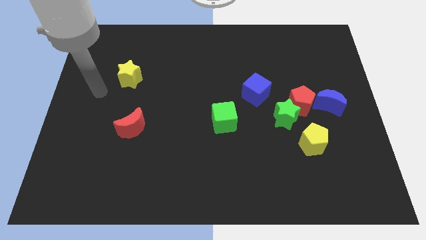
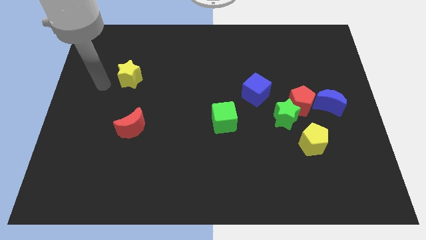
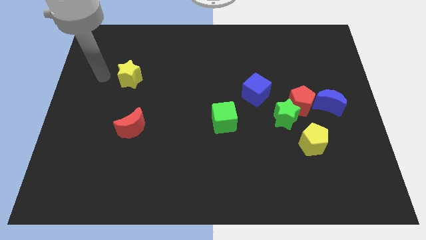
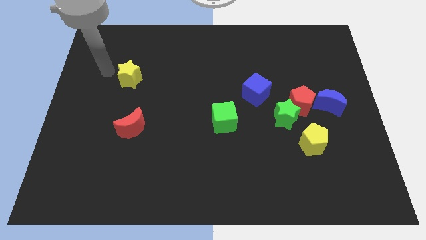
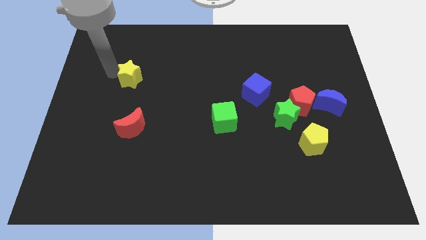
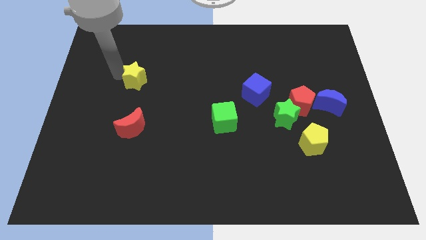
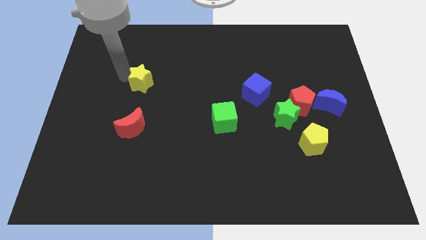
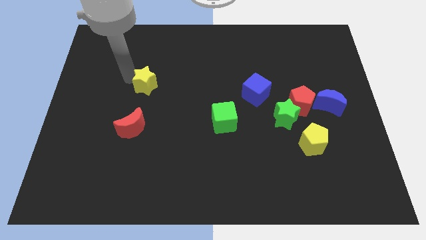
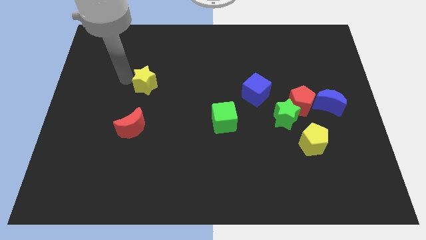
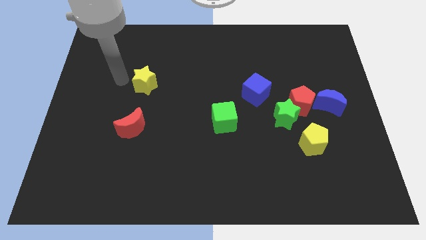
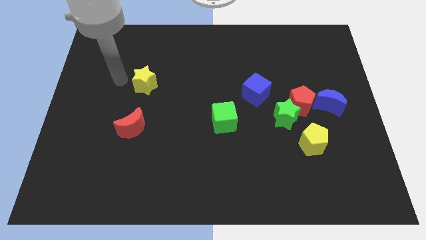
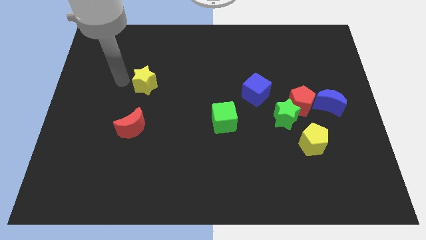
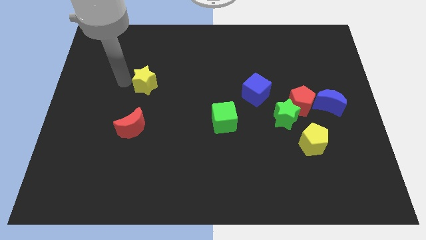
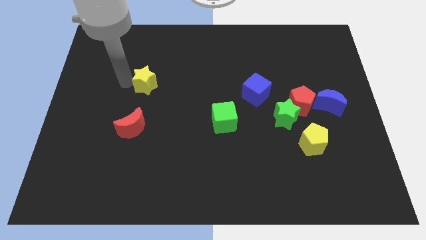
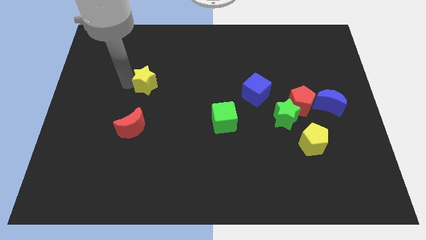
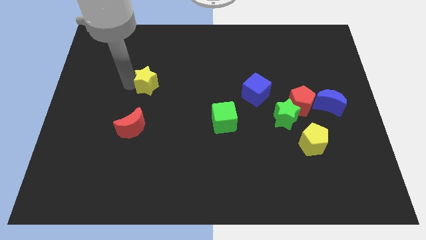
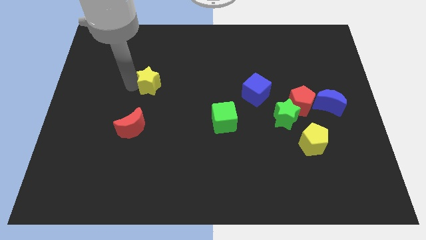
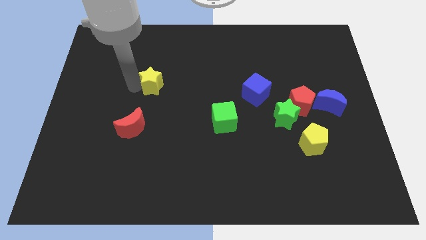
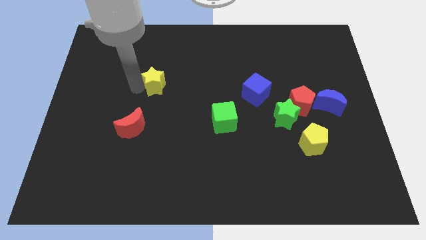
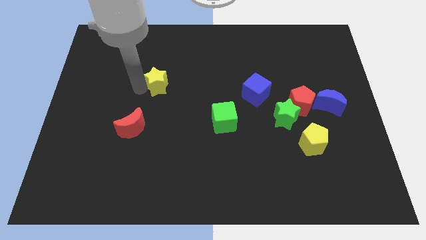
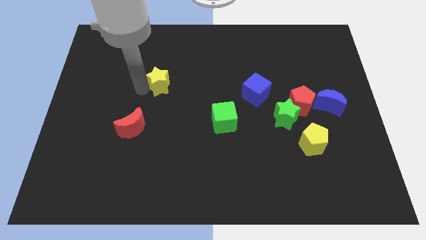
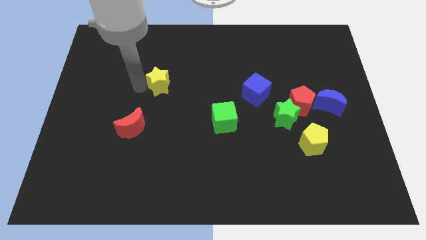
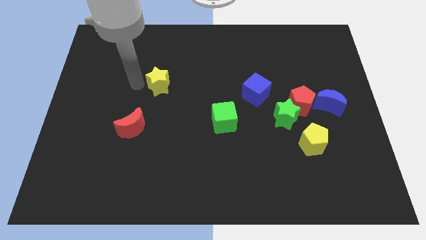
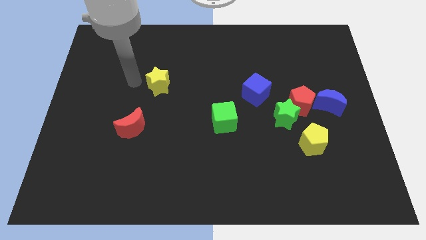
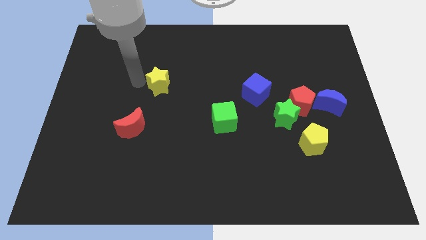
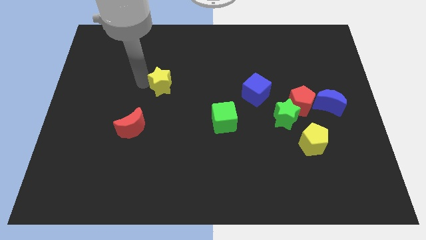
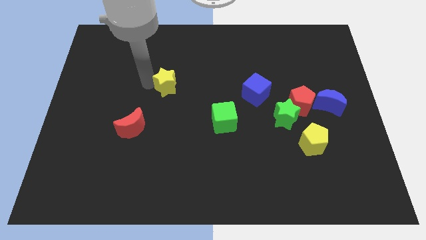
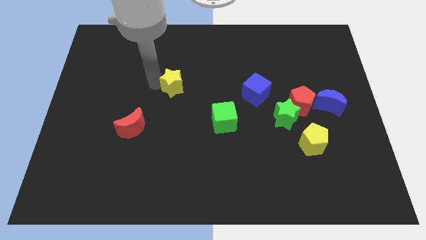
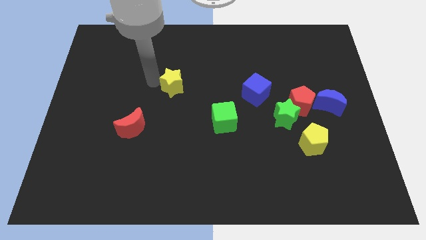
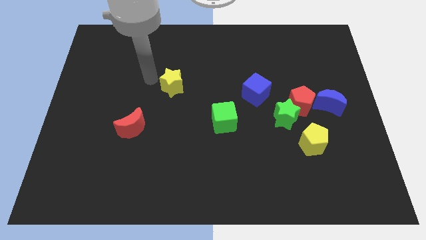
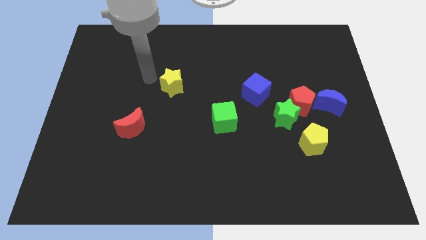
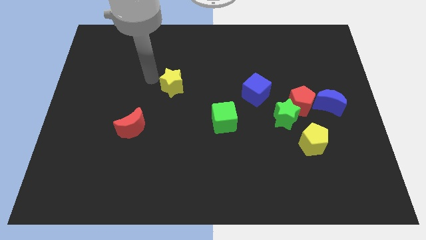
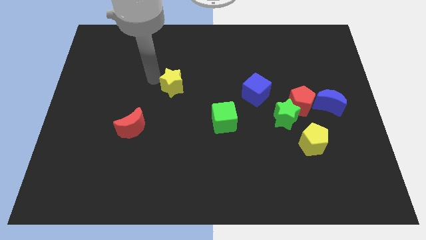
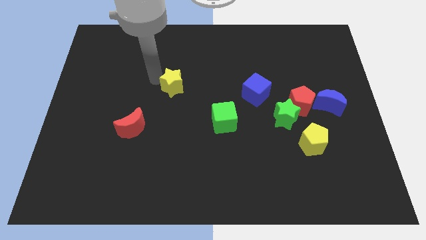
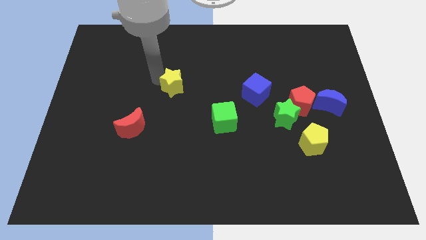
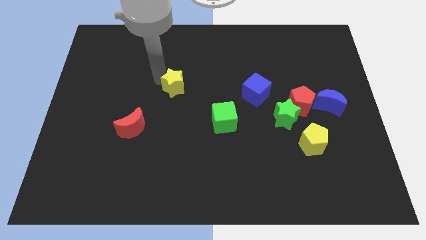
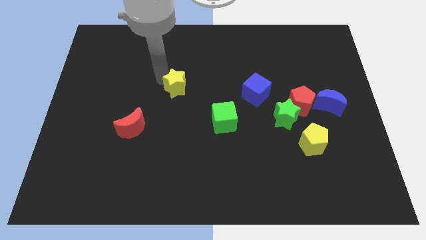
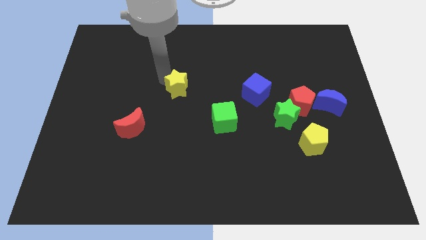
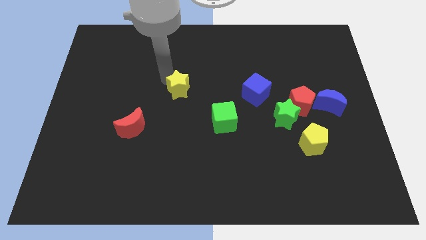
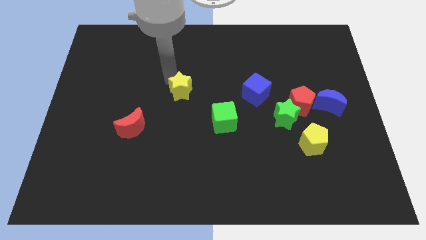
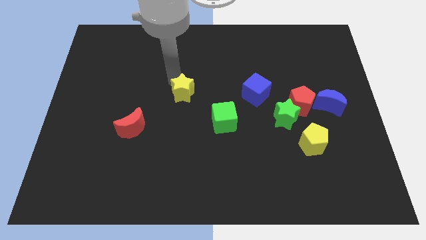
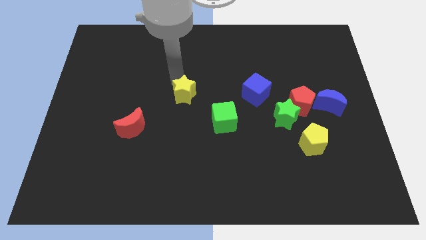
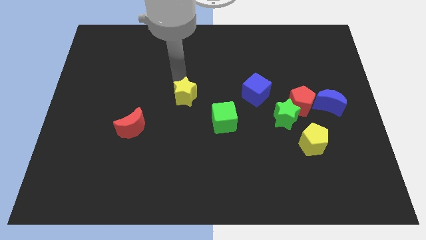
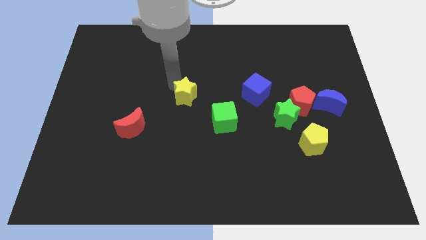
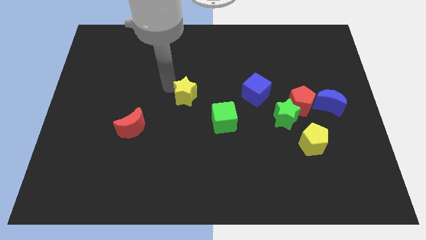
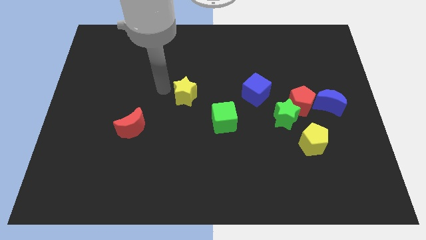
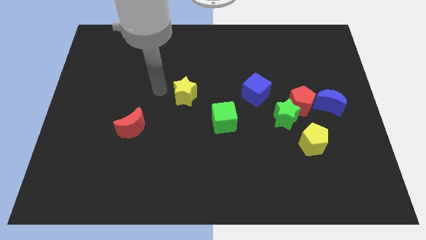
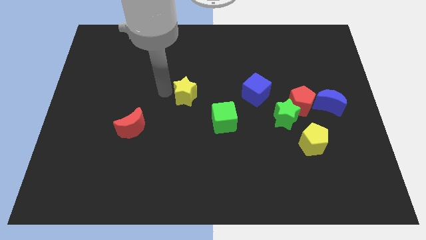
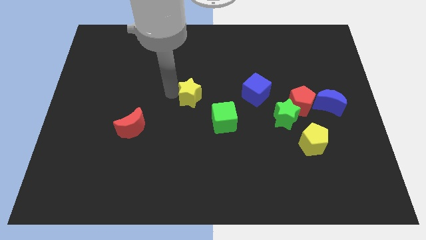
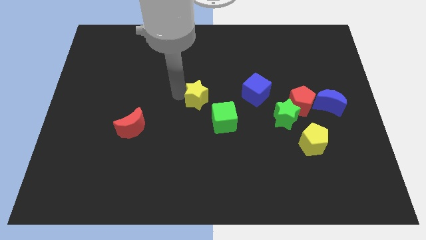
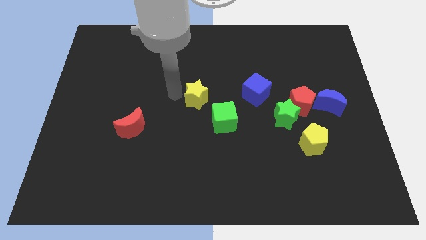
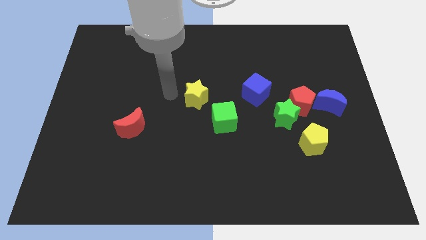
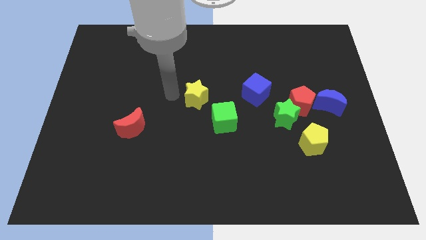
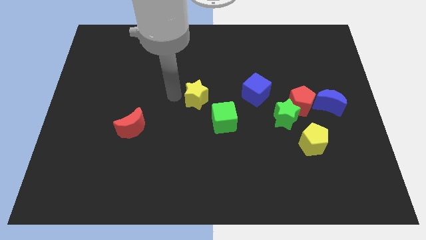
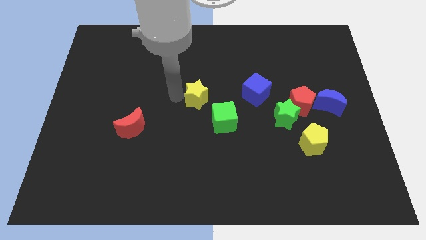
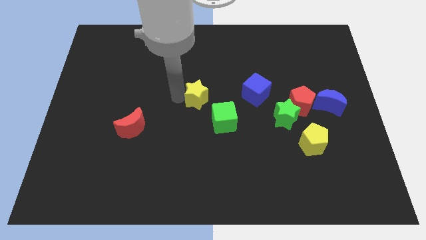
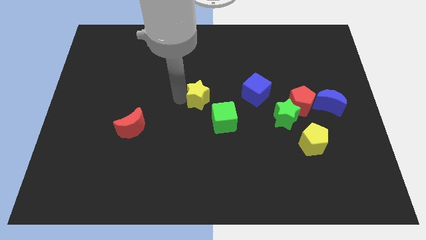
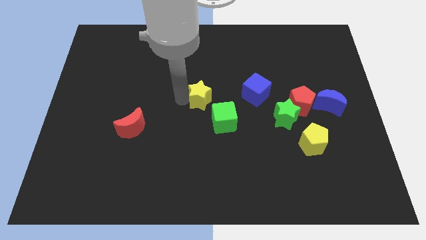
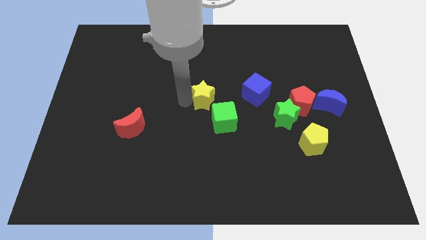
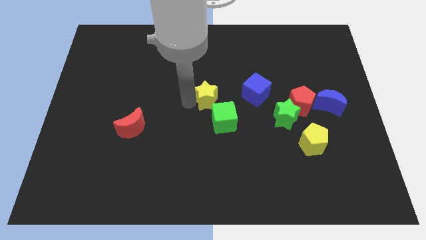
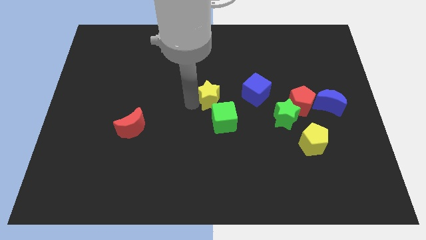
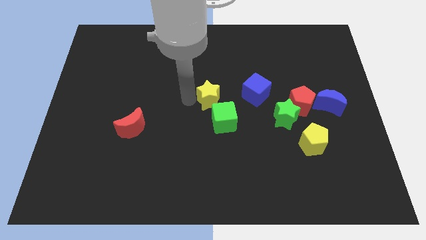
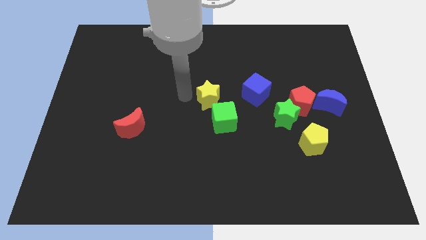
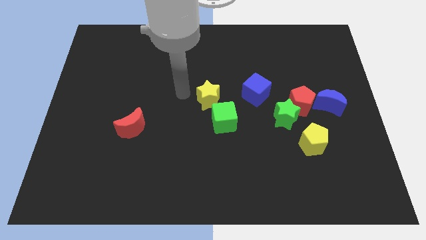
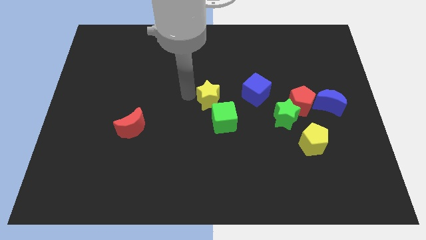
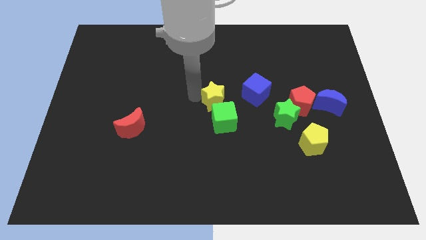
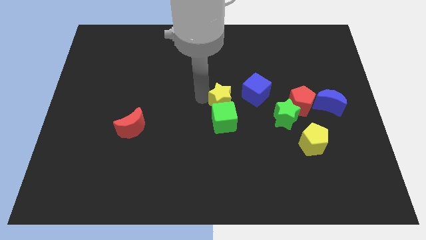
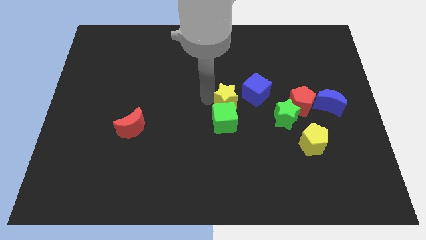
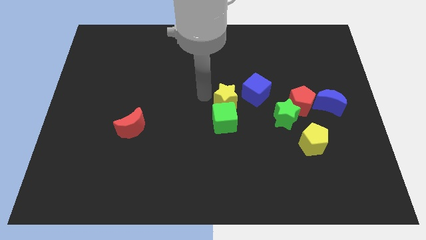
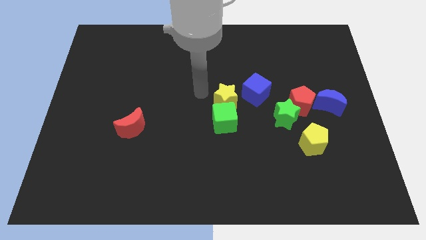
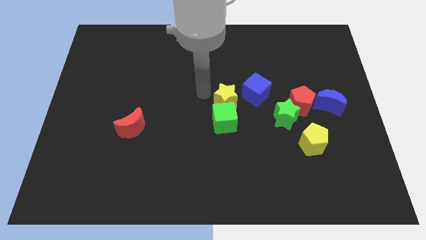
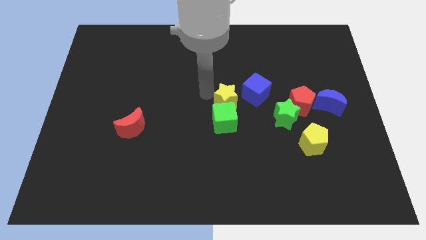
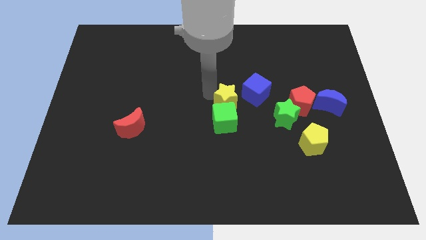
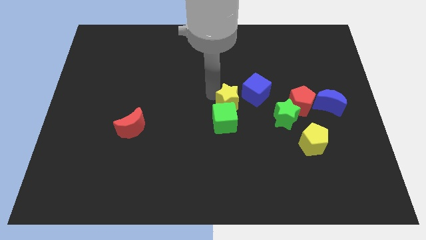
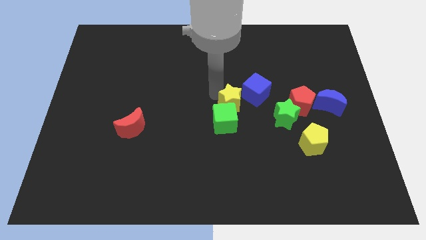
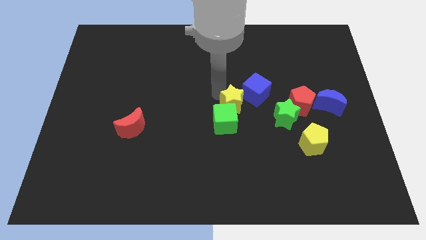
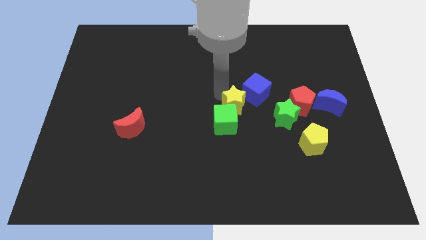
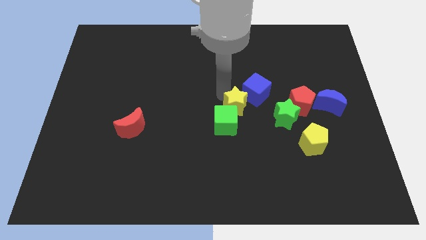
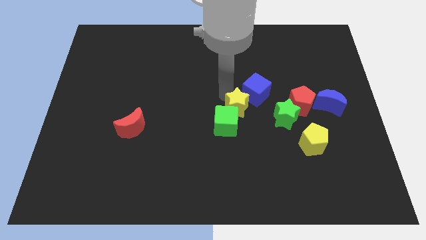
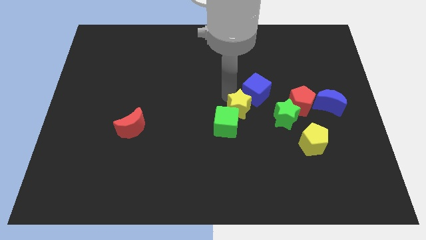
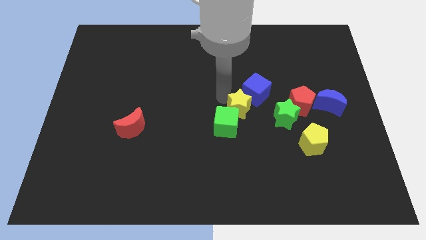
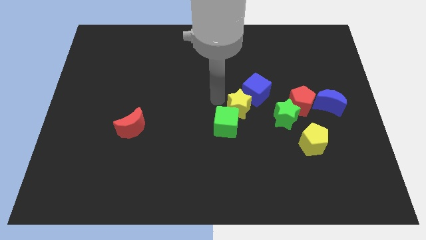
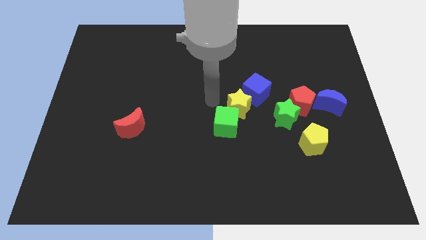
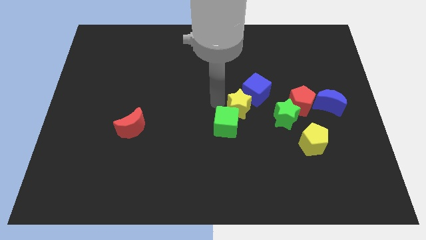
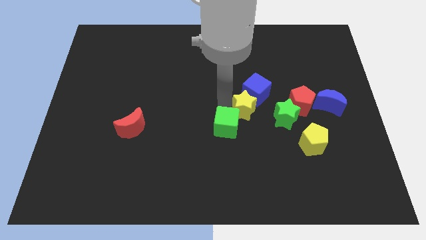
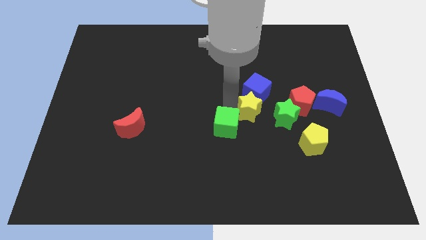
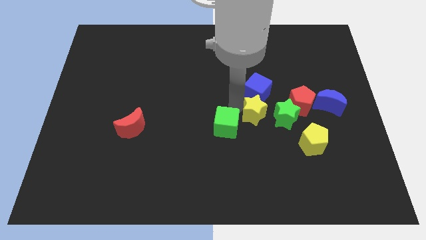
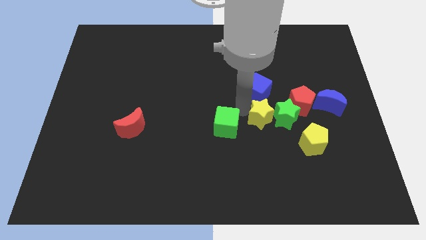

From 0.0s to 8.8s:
move the yellow star towards the green star
